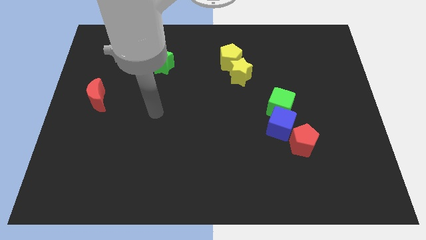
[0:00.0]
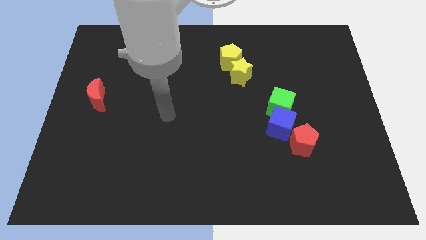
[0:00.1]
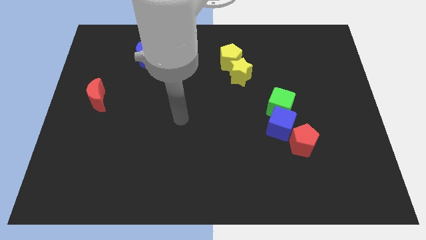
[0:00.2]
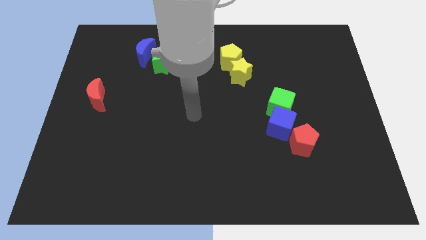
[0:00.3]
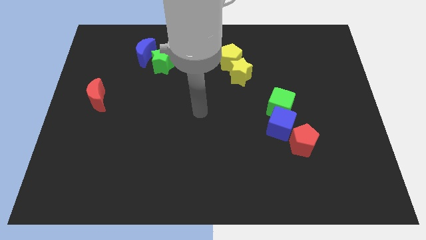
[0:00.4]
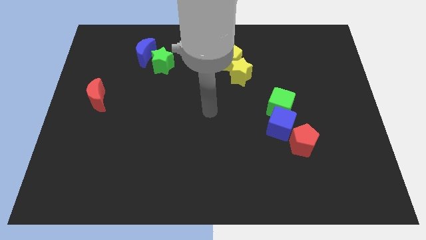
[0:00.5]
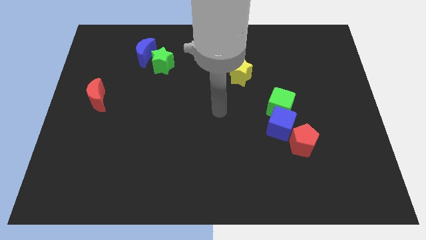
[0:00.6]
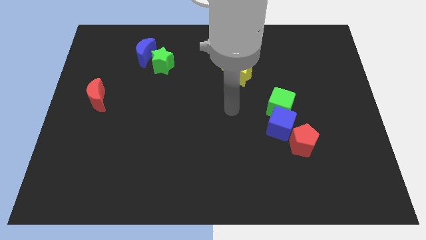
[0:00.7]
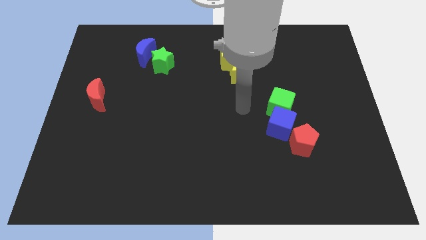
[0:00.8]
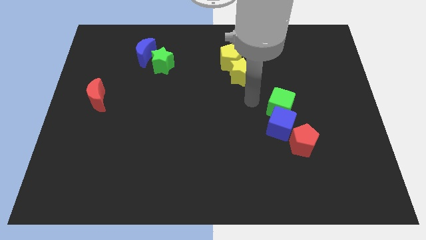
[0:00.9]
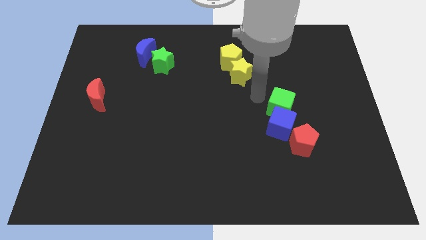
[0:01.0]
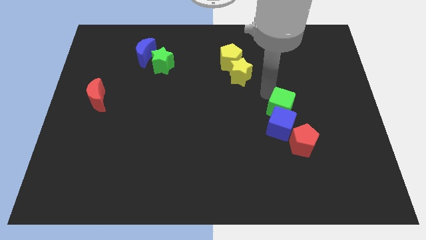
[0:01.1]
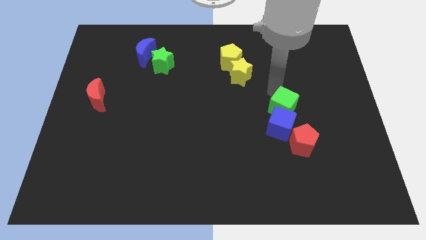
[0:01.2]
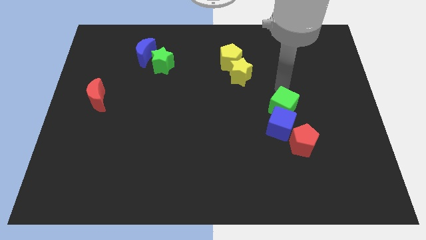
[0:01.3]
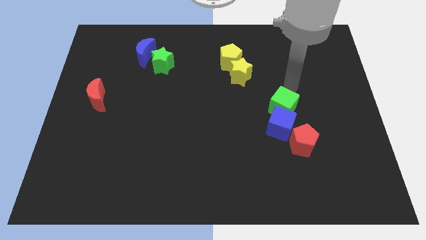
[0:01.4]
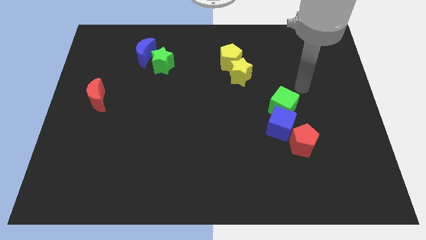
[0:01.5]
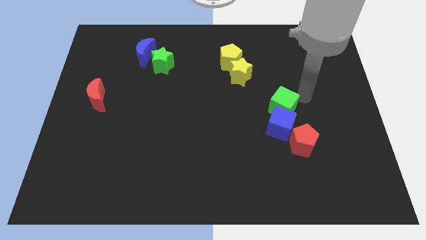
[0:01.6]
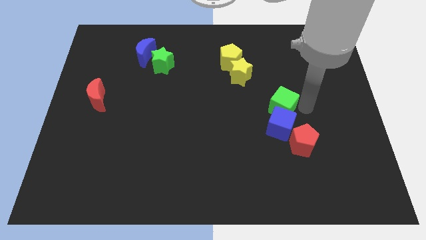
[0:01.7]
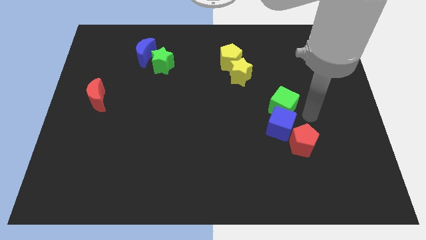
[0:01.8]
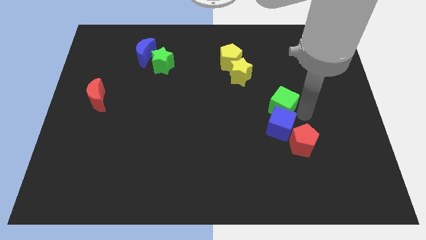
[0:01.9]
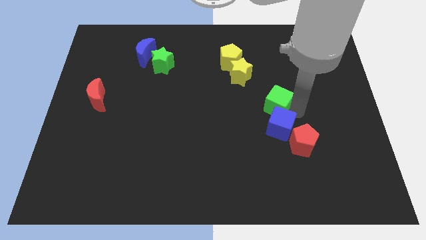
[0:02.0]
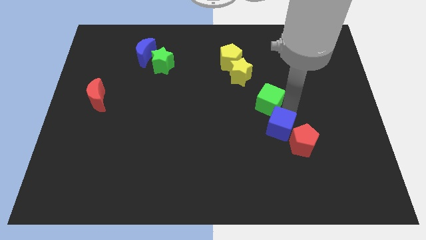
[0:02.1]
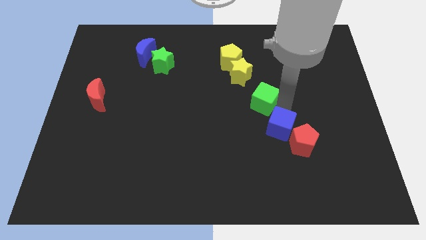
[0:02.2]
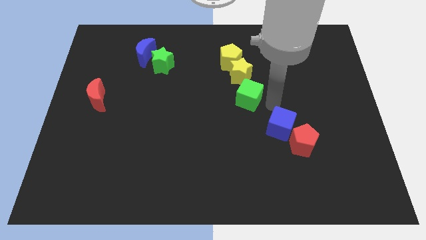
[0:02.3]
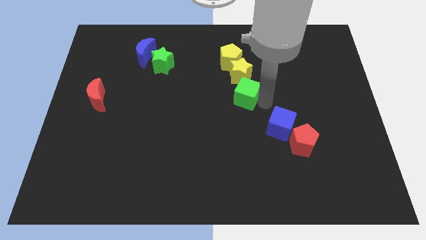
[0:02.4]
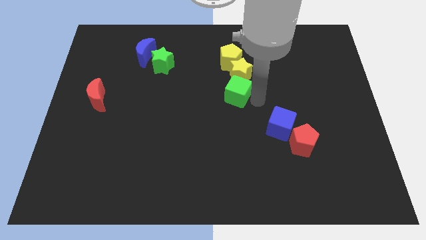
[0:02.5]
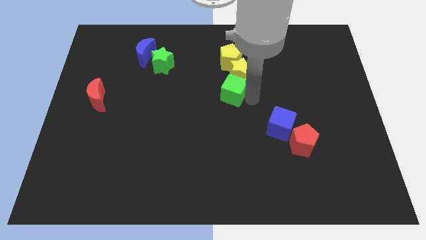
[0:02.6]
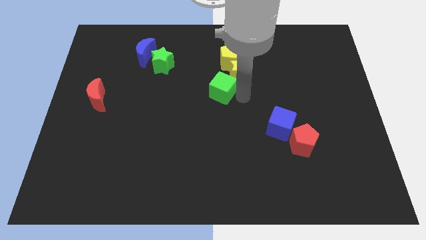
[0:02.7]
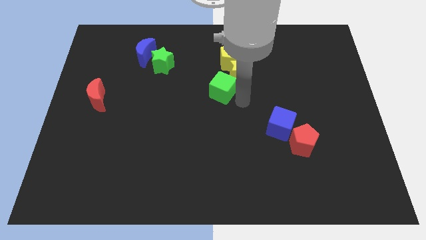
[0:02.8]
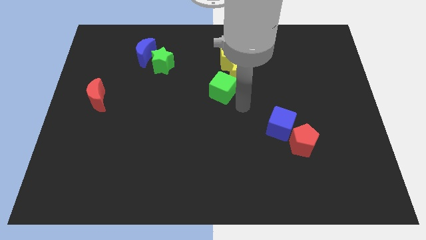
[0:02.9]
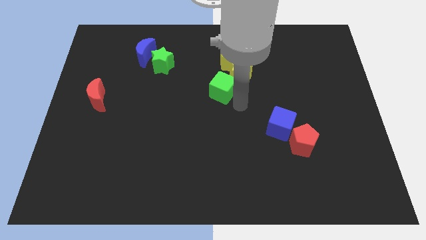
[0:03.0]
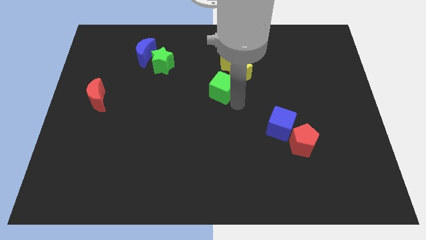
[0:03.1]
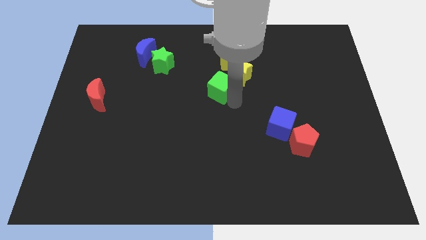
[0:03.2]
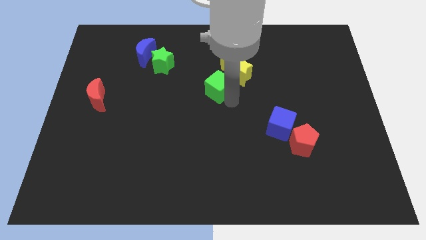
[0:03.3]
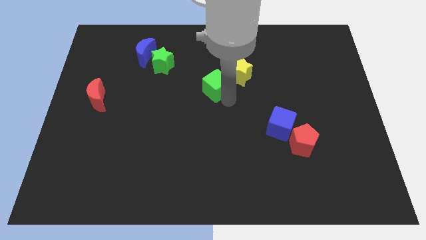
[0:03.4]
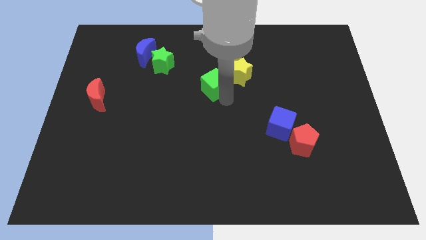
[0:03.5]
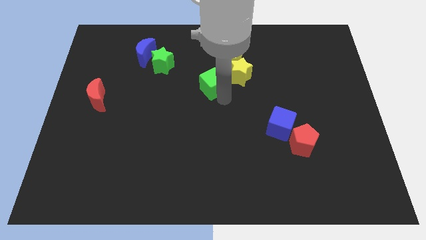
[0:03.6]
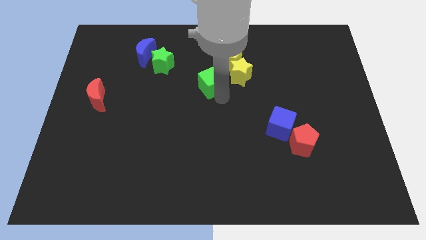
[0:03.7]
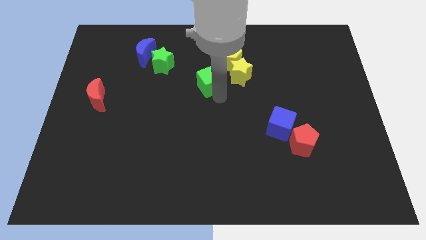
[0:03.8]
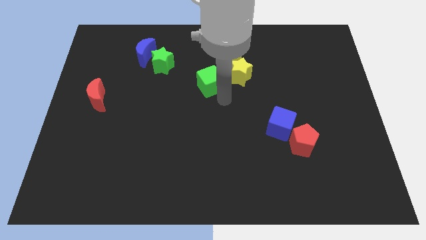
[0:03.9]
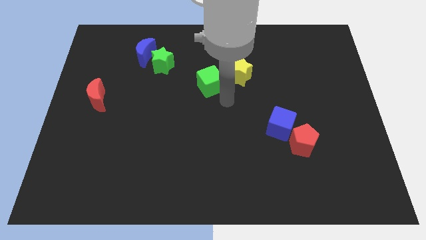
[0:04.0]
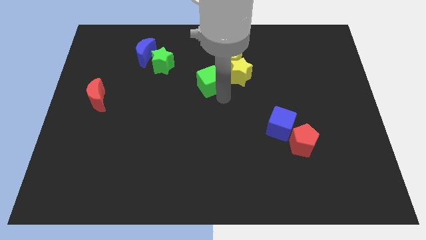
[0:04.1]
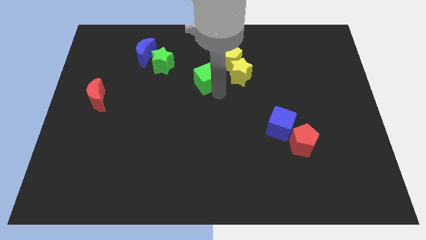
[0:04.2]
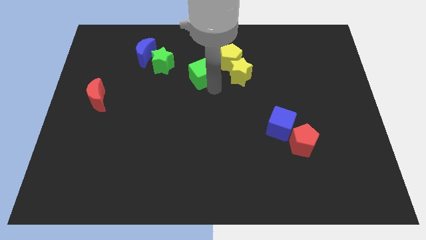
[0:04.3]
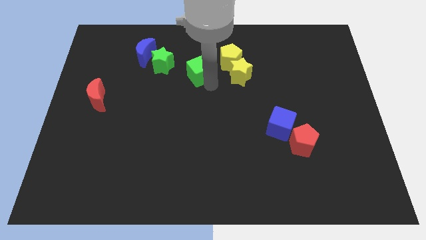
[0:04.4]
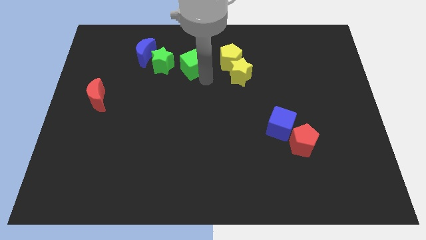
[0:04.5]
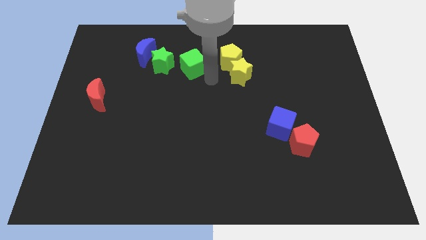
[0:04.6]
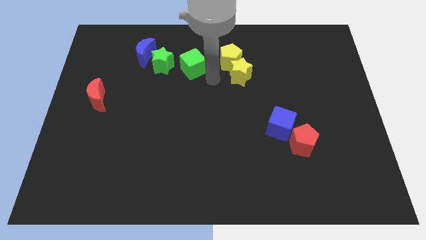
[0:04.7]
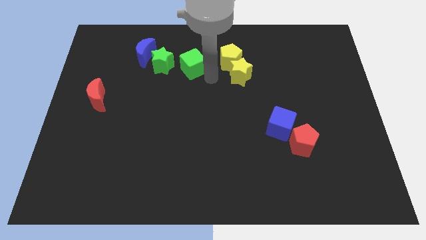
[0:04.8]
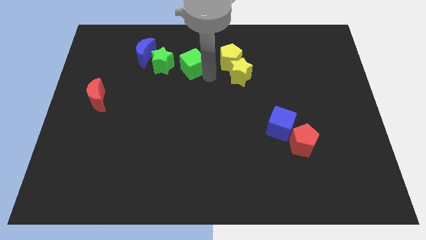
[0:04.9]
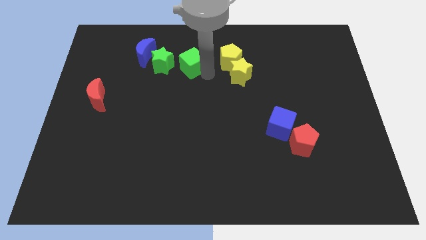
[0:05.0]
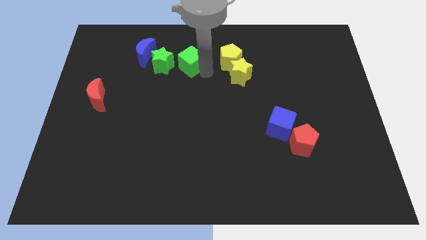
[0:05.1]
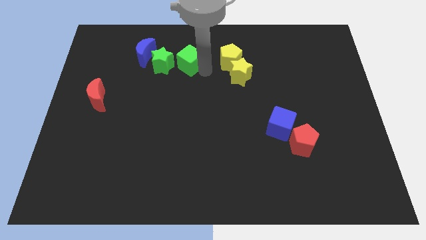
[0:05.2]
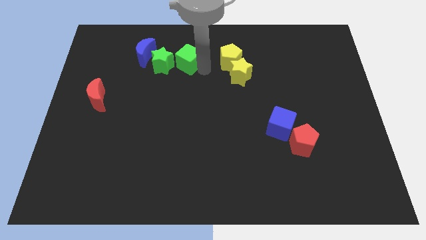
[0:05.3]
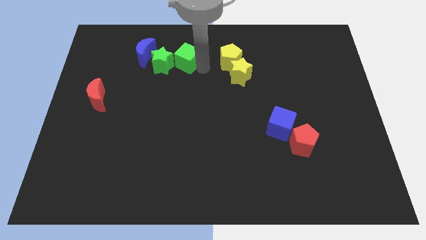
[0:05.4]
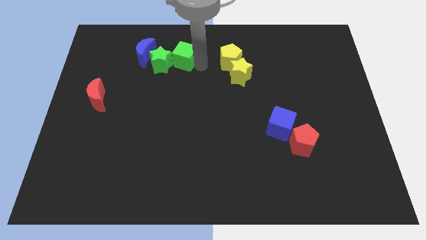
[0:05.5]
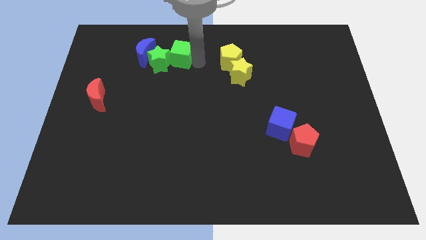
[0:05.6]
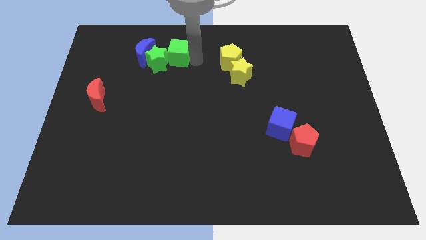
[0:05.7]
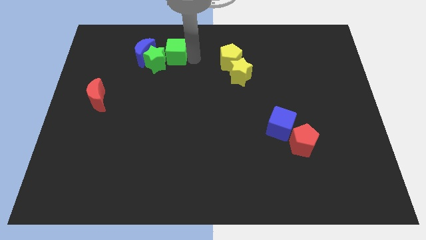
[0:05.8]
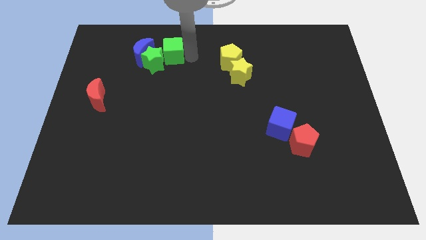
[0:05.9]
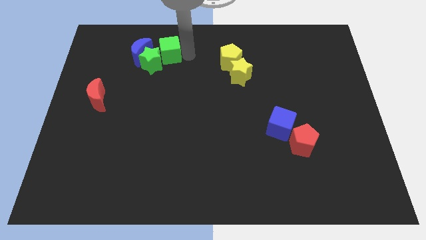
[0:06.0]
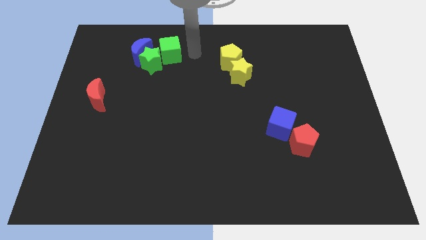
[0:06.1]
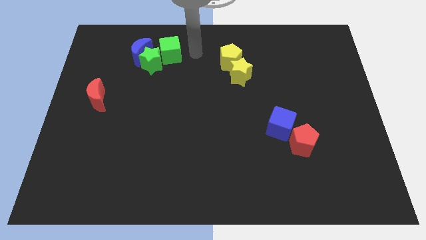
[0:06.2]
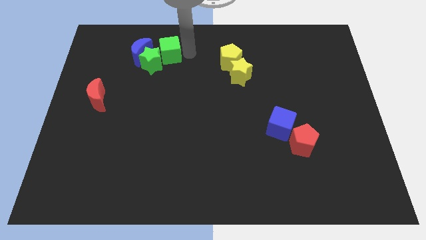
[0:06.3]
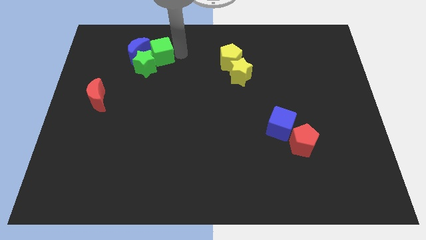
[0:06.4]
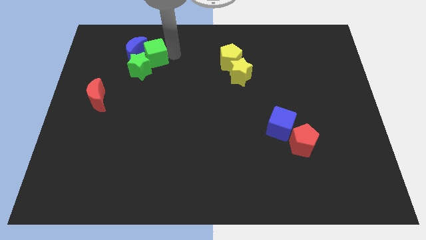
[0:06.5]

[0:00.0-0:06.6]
put the green cube next to the blue moon
